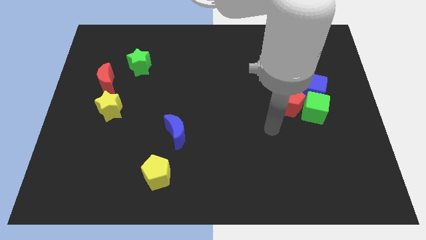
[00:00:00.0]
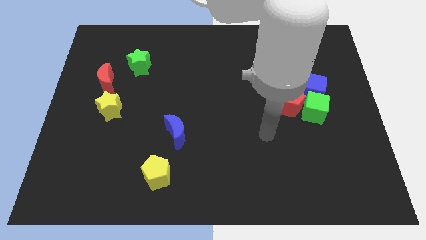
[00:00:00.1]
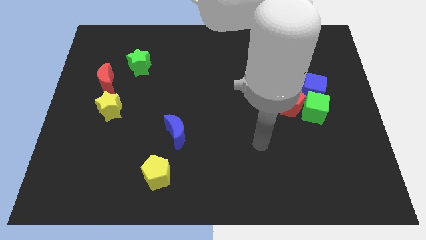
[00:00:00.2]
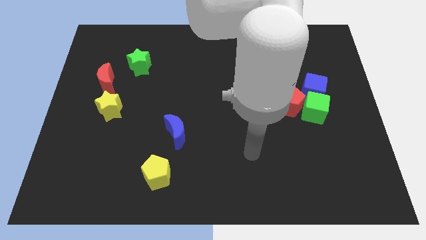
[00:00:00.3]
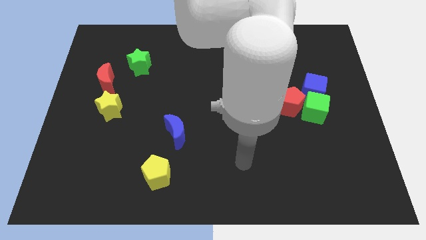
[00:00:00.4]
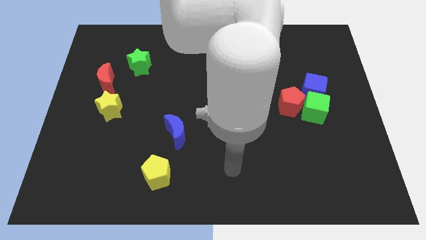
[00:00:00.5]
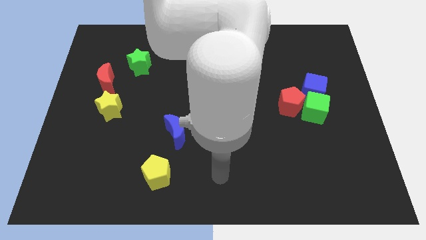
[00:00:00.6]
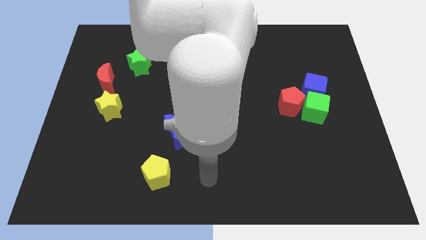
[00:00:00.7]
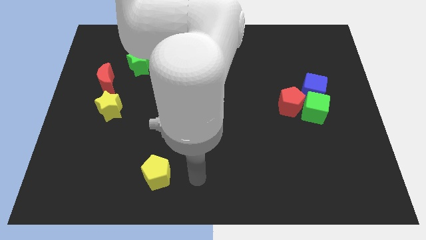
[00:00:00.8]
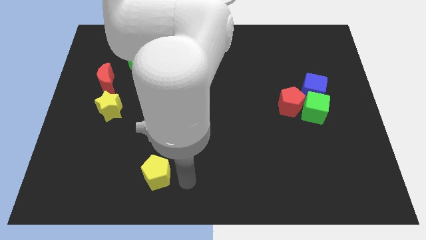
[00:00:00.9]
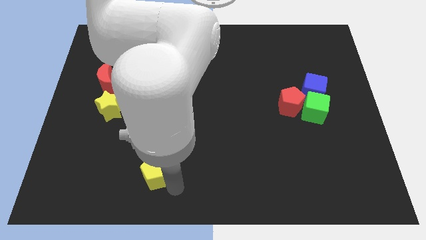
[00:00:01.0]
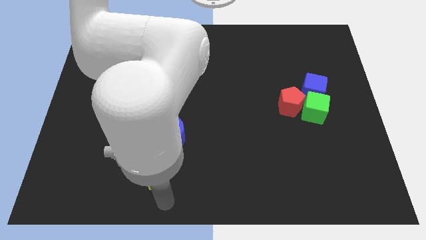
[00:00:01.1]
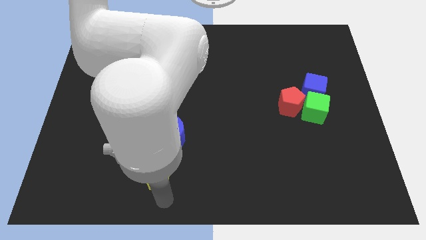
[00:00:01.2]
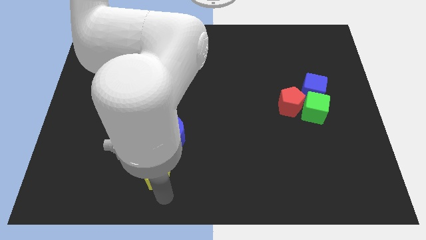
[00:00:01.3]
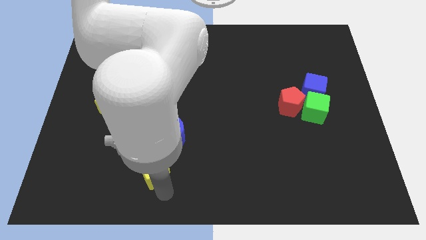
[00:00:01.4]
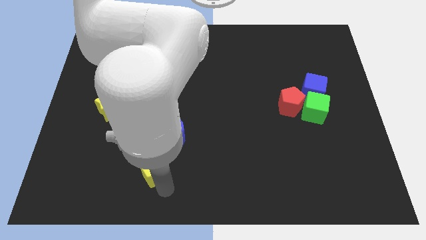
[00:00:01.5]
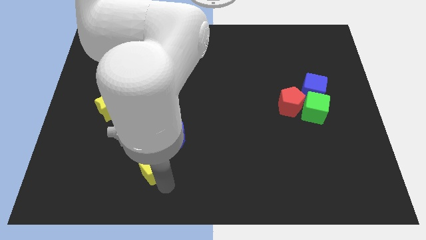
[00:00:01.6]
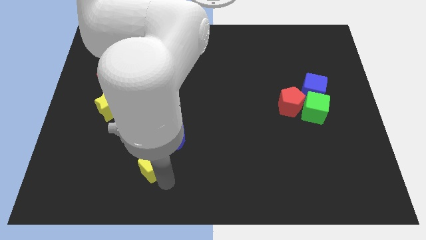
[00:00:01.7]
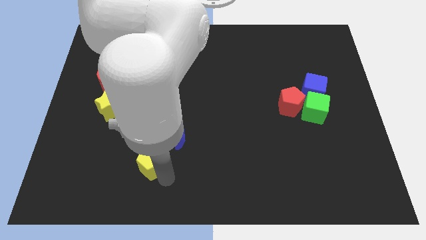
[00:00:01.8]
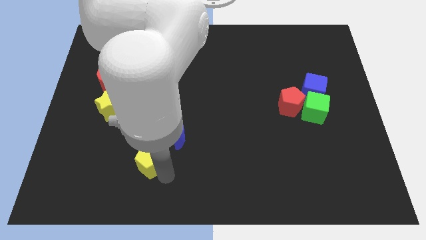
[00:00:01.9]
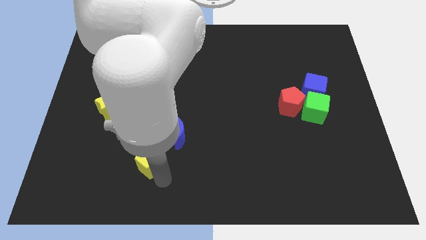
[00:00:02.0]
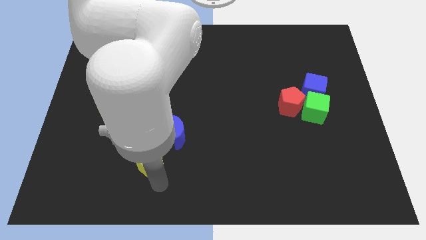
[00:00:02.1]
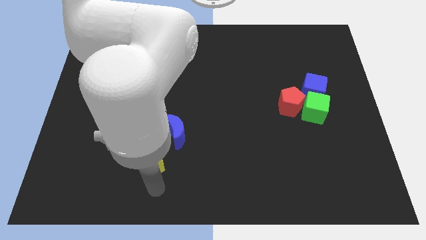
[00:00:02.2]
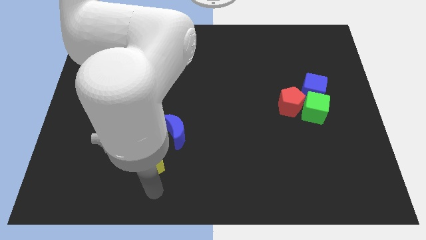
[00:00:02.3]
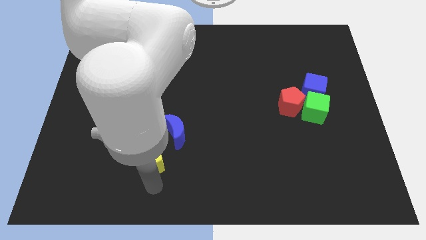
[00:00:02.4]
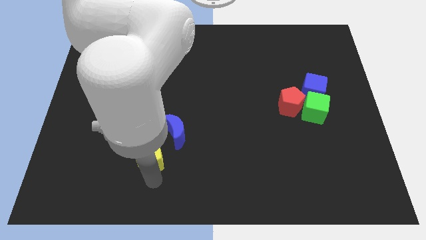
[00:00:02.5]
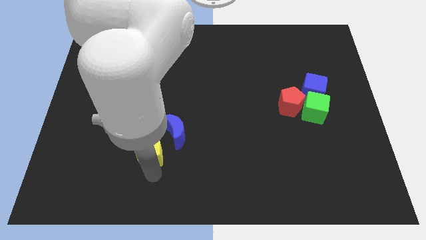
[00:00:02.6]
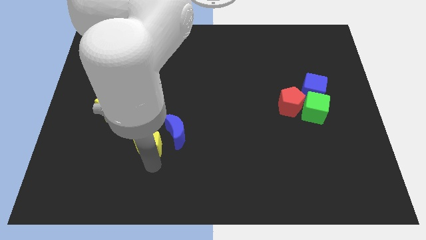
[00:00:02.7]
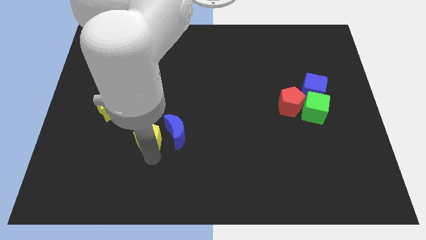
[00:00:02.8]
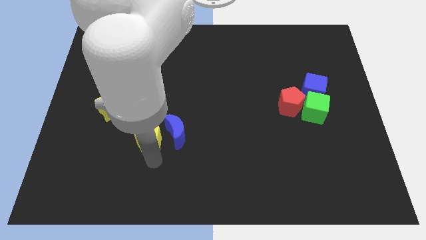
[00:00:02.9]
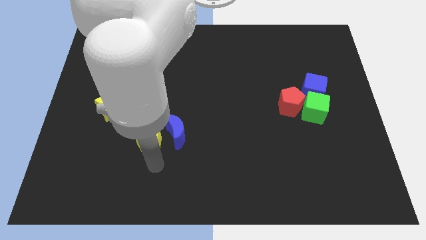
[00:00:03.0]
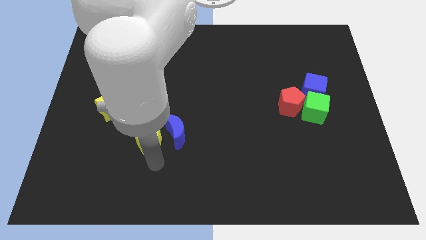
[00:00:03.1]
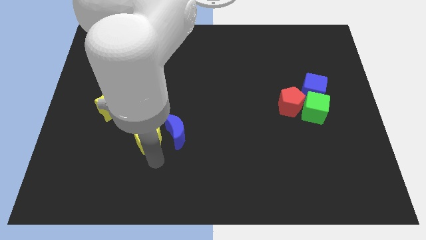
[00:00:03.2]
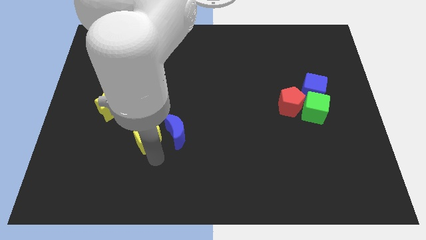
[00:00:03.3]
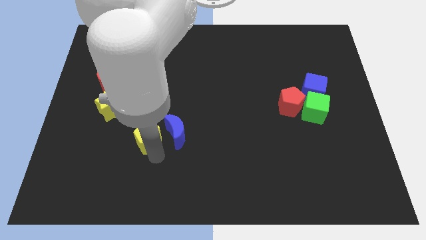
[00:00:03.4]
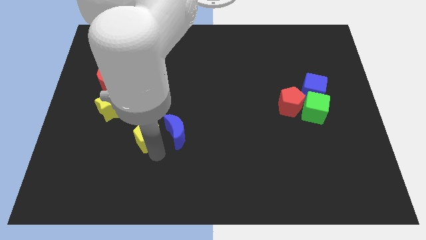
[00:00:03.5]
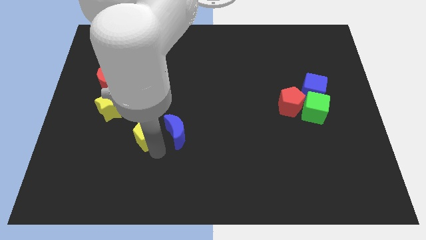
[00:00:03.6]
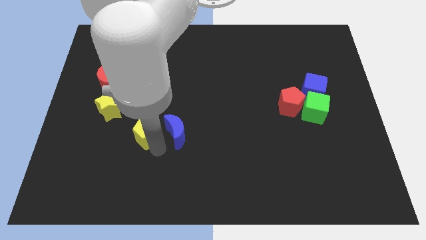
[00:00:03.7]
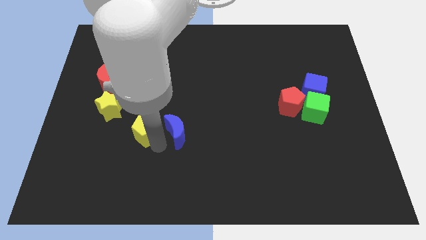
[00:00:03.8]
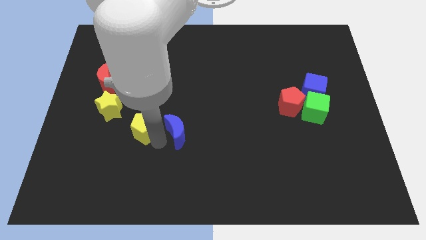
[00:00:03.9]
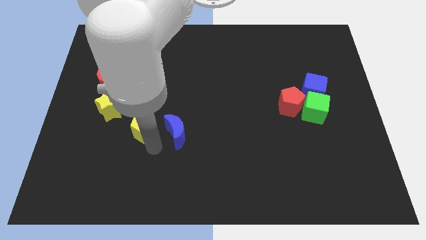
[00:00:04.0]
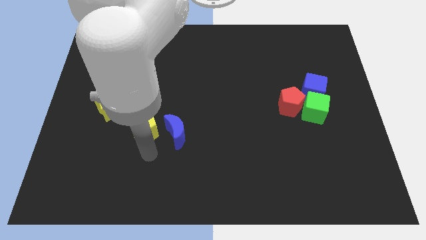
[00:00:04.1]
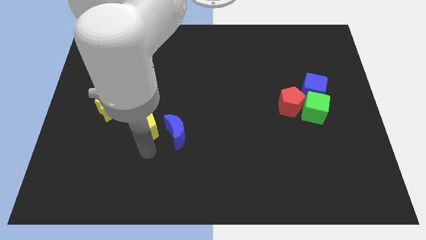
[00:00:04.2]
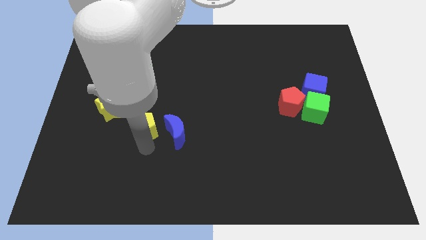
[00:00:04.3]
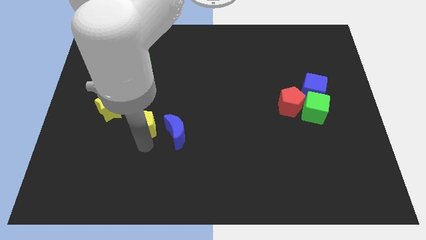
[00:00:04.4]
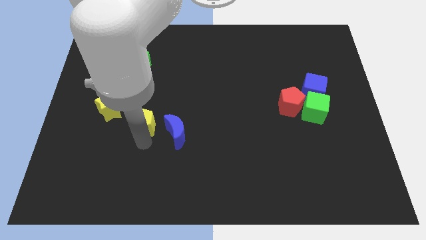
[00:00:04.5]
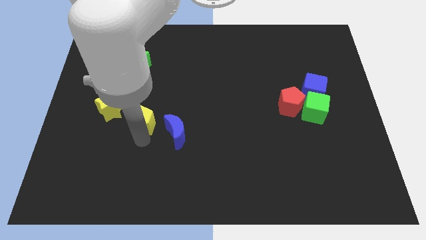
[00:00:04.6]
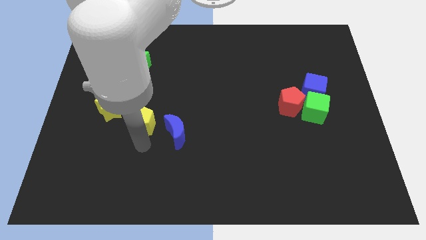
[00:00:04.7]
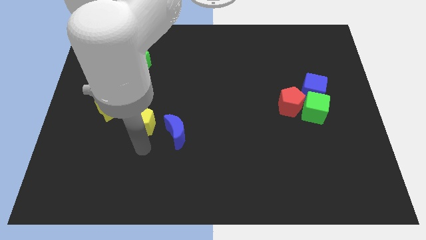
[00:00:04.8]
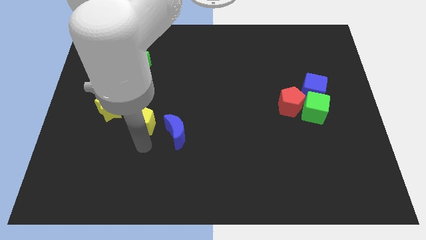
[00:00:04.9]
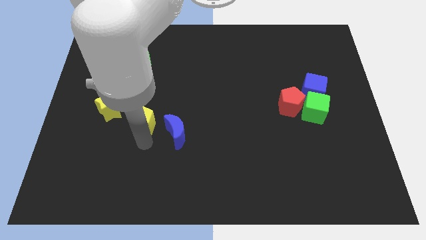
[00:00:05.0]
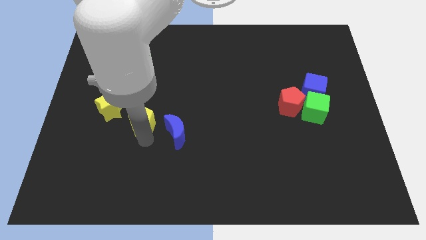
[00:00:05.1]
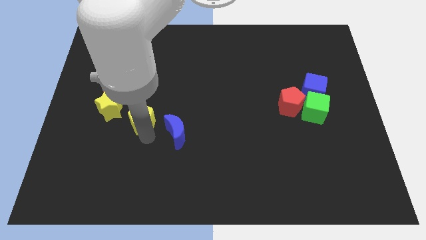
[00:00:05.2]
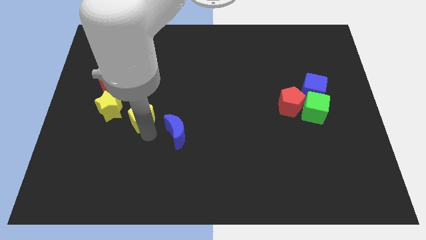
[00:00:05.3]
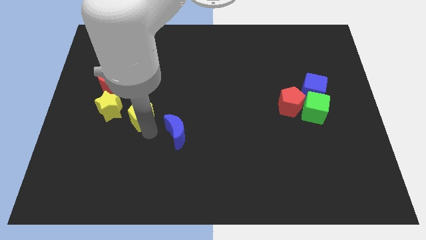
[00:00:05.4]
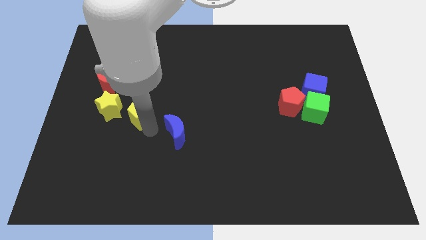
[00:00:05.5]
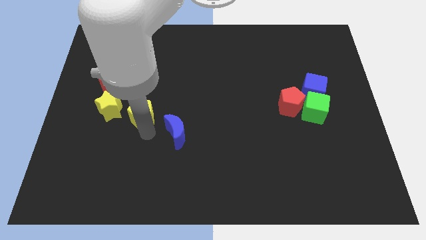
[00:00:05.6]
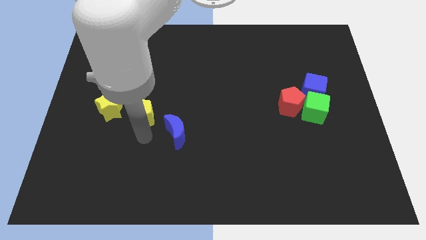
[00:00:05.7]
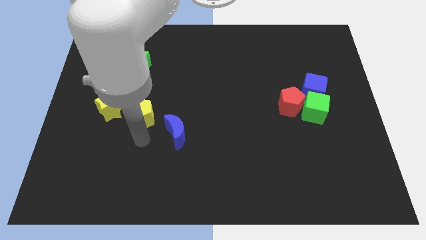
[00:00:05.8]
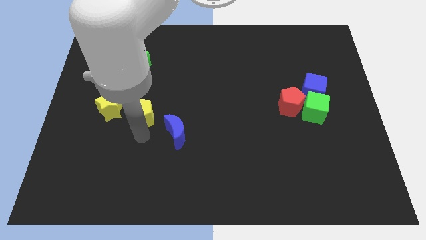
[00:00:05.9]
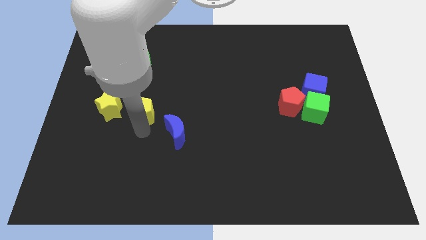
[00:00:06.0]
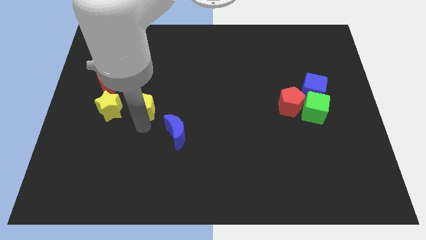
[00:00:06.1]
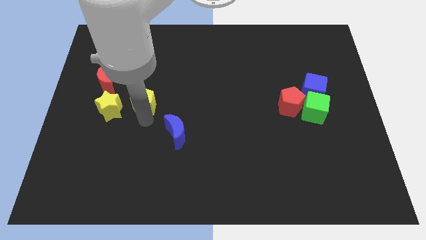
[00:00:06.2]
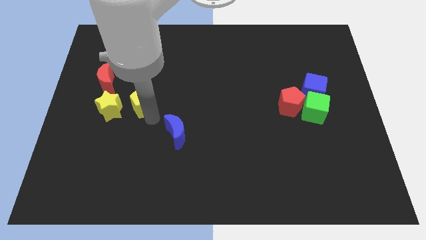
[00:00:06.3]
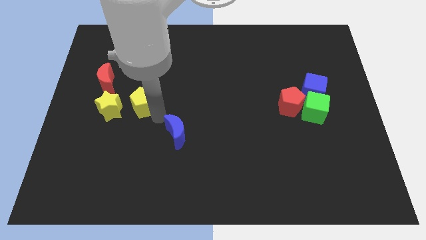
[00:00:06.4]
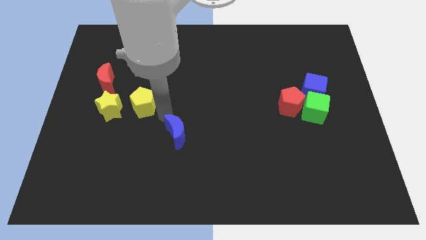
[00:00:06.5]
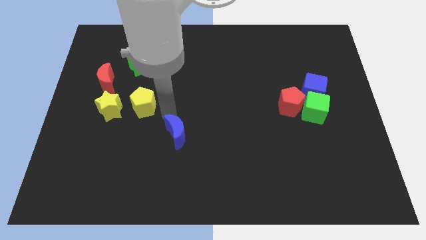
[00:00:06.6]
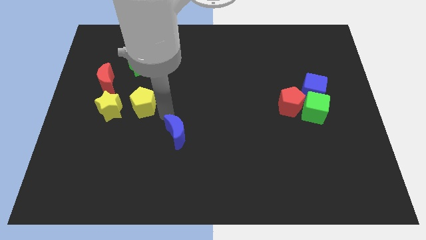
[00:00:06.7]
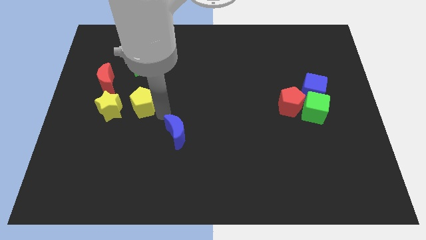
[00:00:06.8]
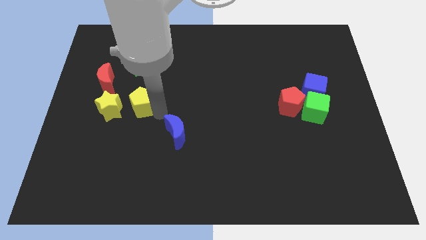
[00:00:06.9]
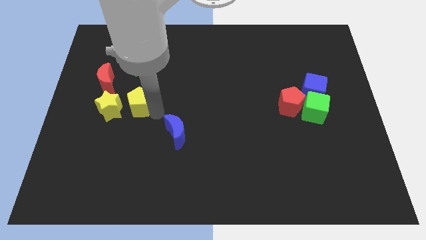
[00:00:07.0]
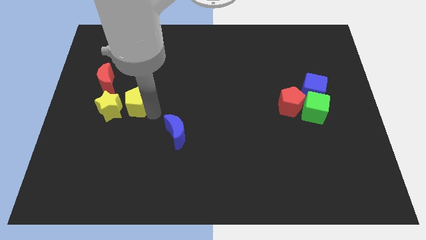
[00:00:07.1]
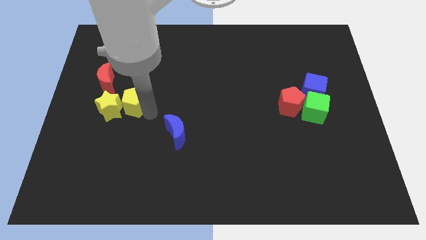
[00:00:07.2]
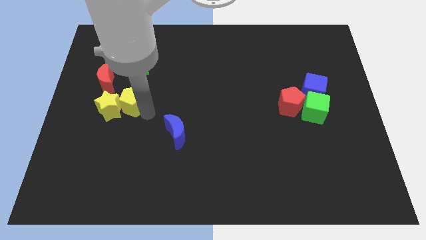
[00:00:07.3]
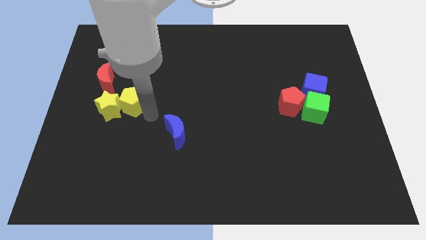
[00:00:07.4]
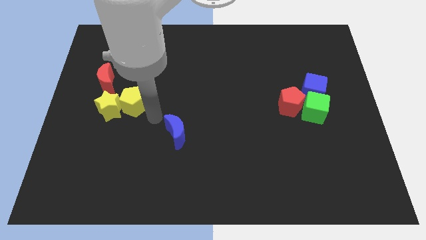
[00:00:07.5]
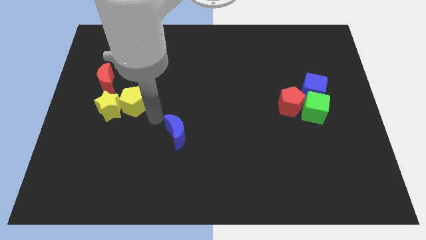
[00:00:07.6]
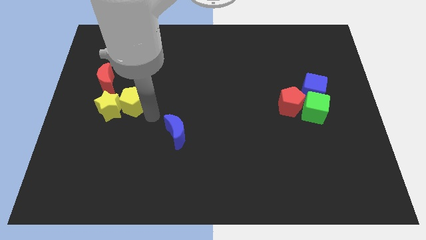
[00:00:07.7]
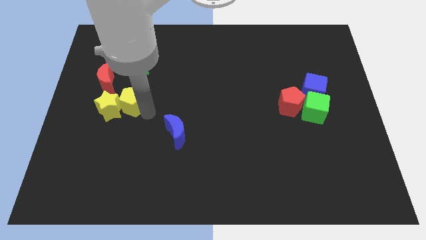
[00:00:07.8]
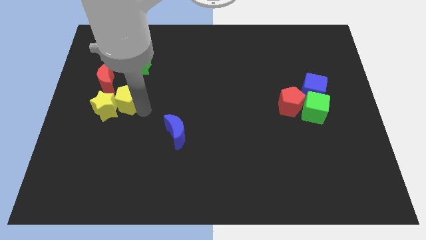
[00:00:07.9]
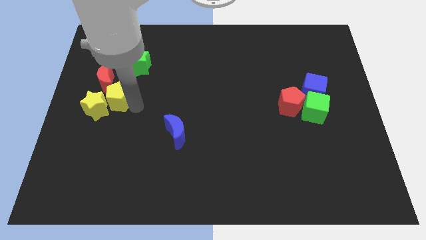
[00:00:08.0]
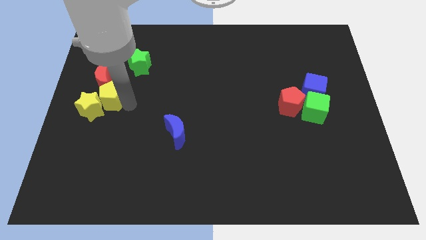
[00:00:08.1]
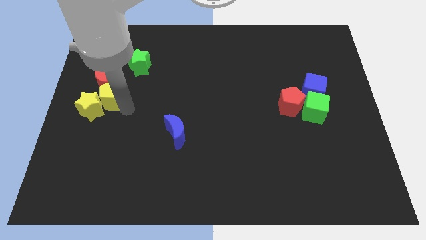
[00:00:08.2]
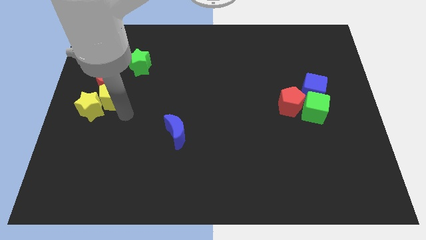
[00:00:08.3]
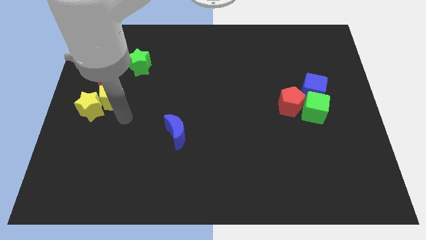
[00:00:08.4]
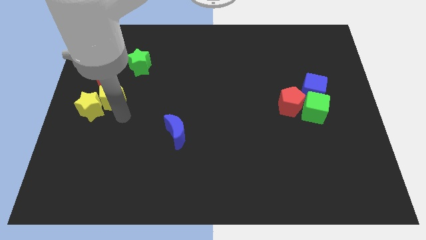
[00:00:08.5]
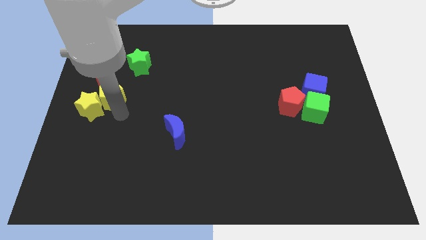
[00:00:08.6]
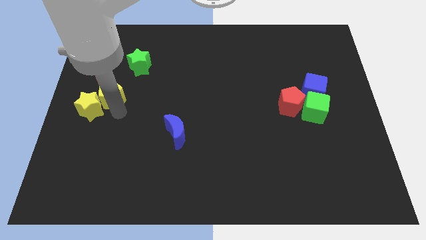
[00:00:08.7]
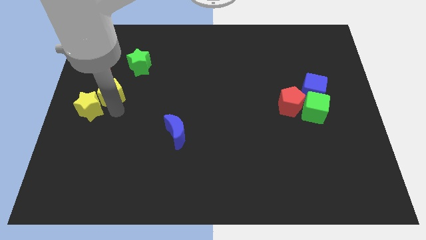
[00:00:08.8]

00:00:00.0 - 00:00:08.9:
put the yellow pentagon to the red moon
